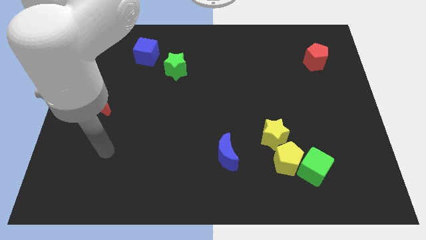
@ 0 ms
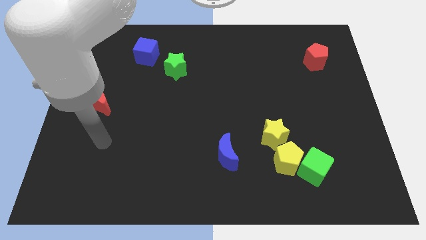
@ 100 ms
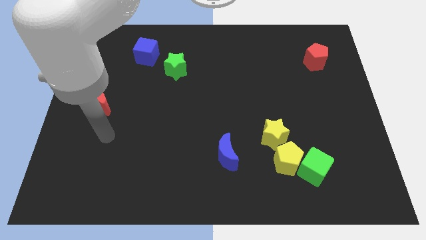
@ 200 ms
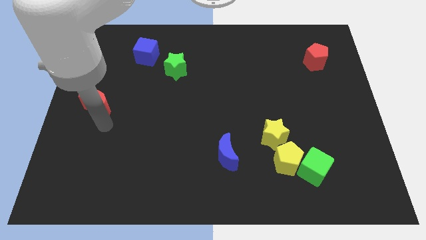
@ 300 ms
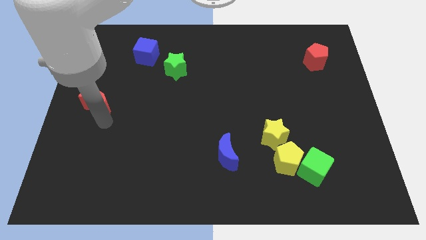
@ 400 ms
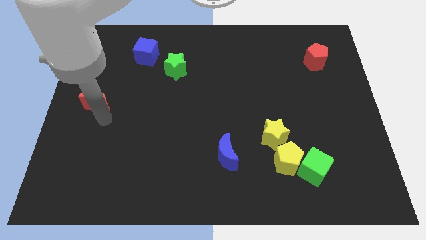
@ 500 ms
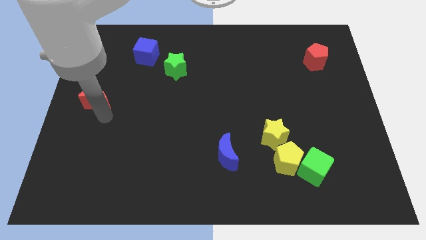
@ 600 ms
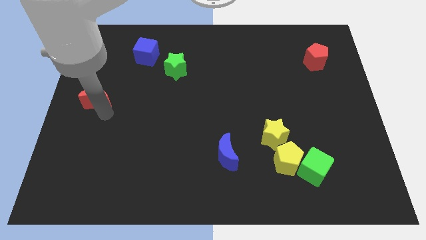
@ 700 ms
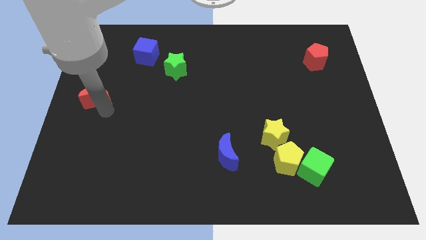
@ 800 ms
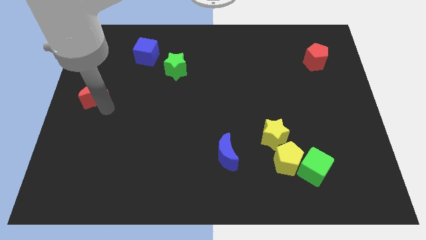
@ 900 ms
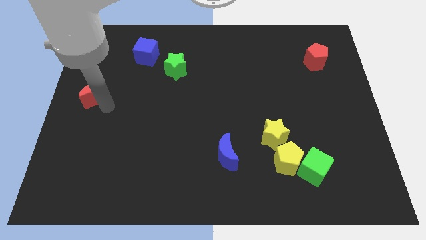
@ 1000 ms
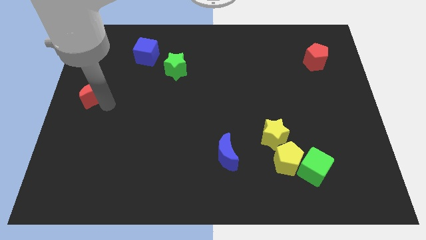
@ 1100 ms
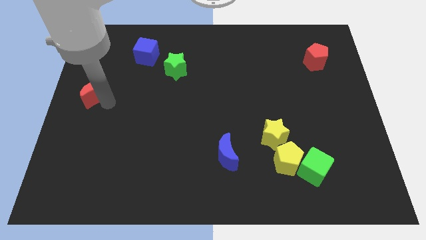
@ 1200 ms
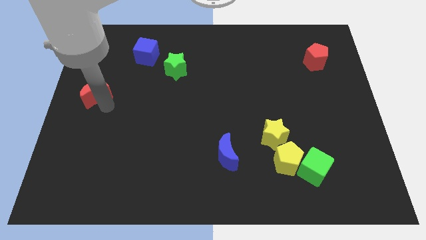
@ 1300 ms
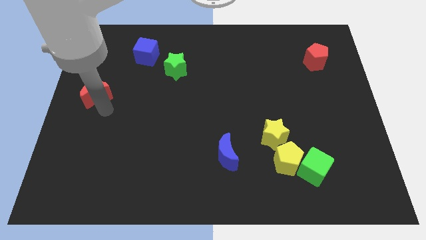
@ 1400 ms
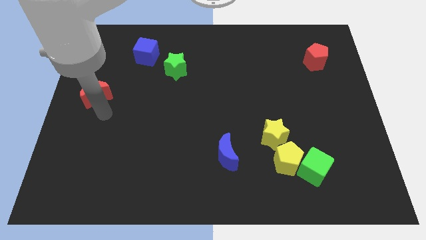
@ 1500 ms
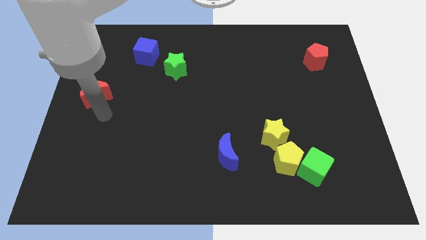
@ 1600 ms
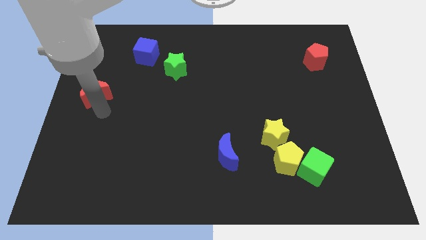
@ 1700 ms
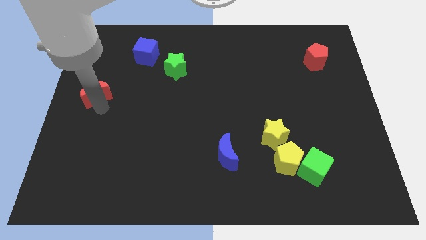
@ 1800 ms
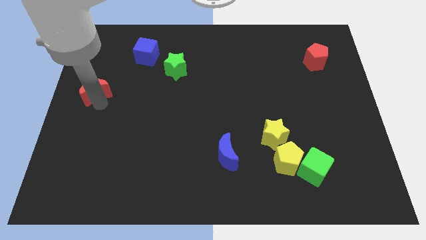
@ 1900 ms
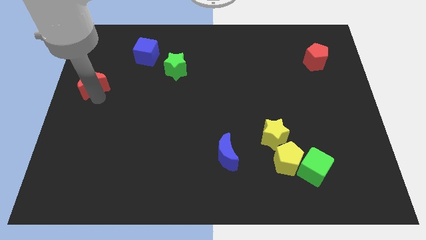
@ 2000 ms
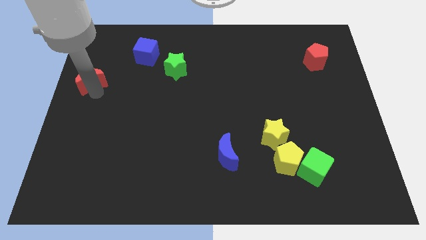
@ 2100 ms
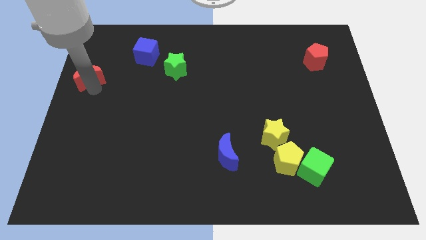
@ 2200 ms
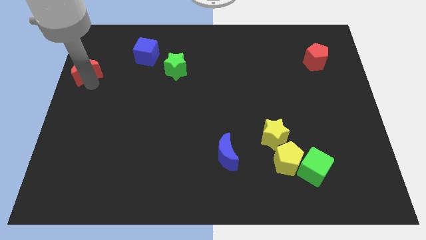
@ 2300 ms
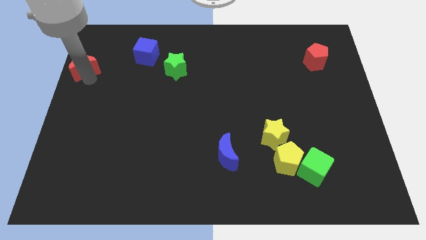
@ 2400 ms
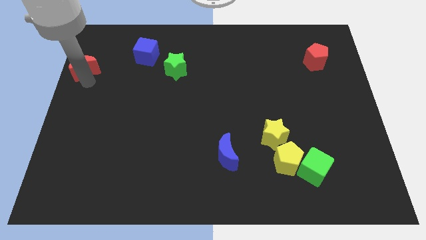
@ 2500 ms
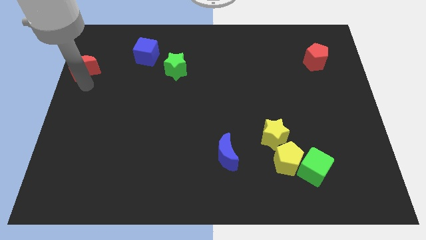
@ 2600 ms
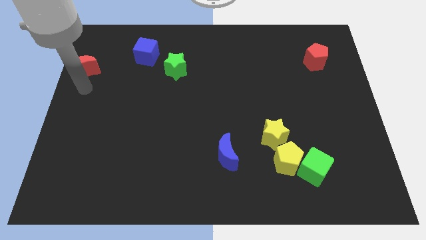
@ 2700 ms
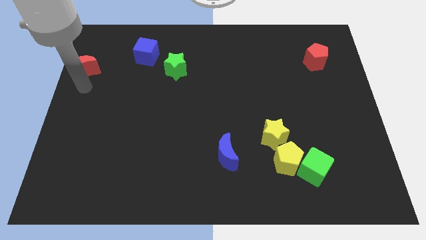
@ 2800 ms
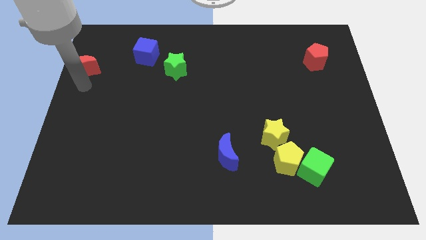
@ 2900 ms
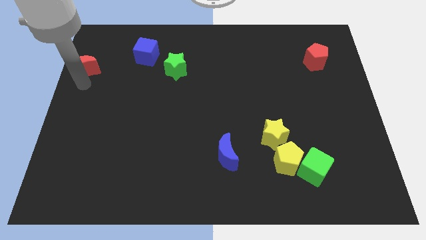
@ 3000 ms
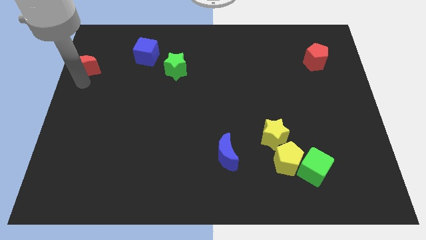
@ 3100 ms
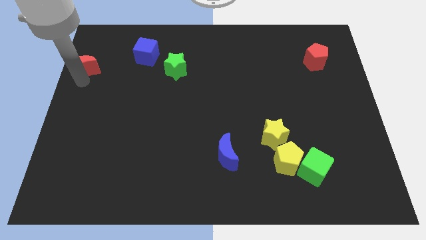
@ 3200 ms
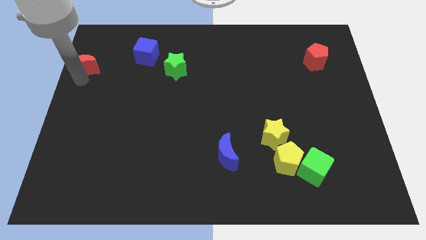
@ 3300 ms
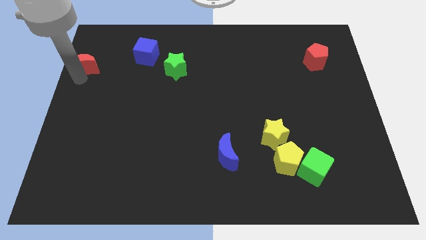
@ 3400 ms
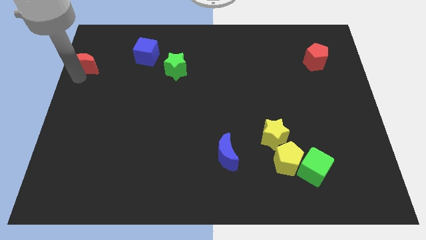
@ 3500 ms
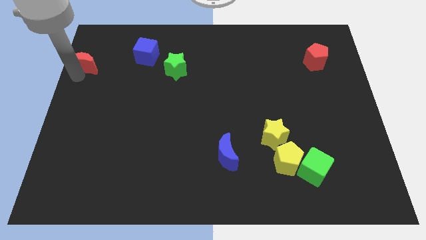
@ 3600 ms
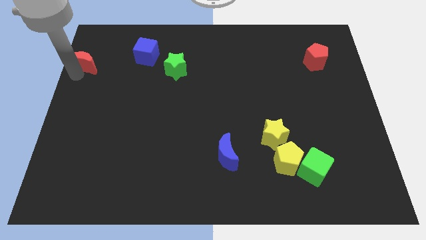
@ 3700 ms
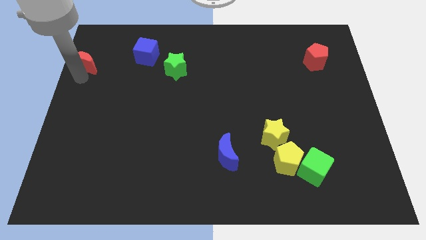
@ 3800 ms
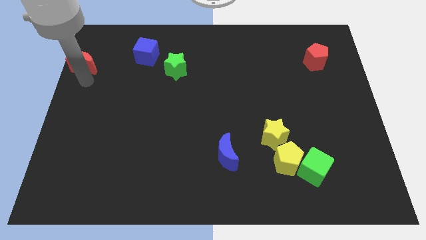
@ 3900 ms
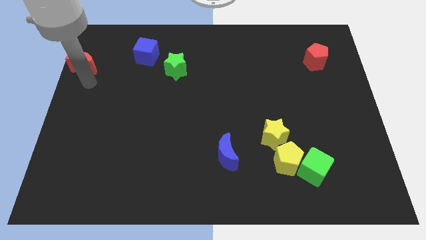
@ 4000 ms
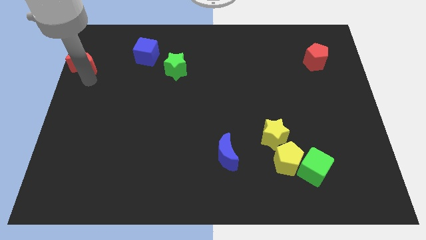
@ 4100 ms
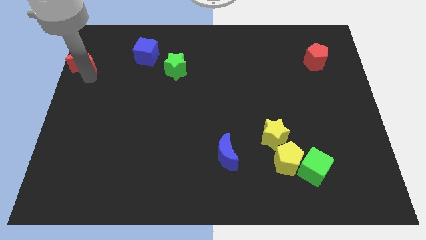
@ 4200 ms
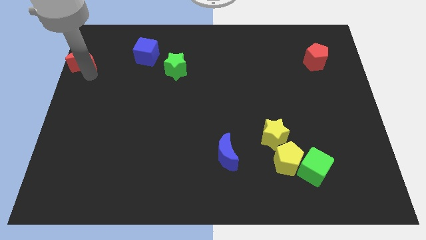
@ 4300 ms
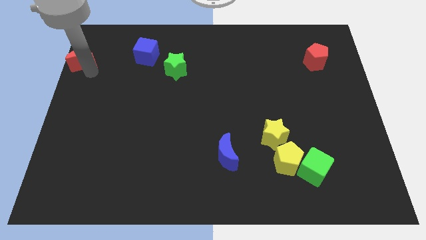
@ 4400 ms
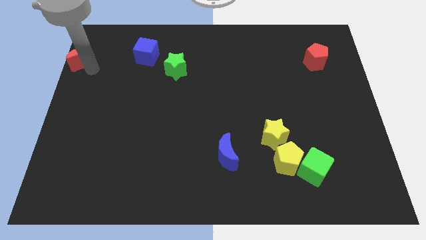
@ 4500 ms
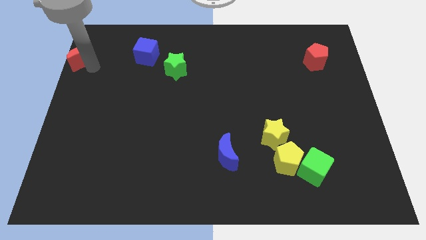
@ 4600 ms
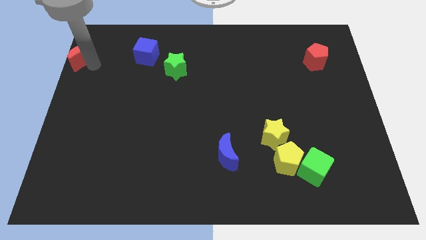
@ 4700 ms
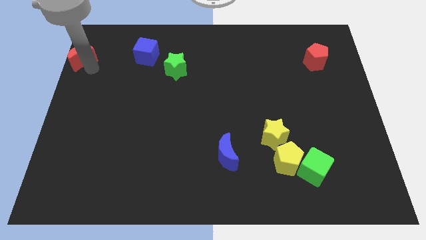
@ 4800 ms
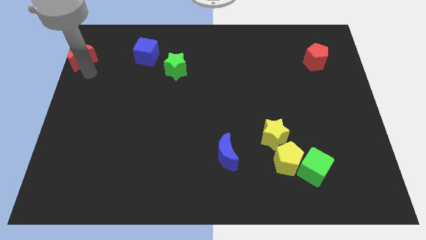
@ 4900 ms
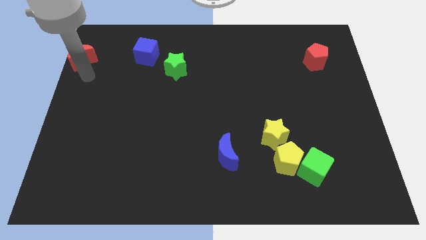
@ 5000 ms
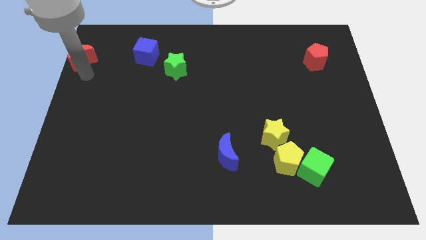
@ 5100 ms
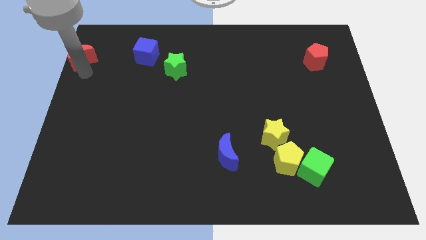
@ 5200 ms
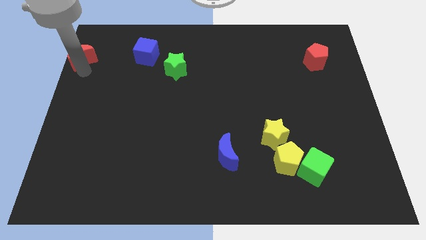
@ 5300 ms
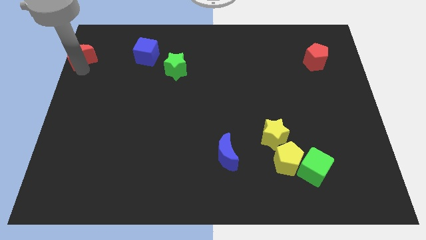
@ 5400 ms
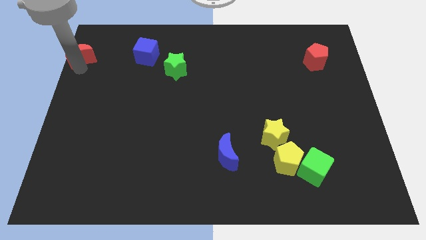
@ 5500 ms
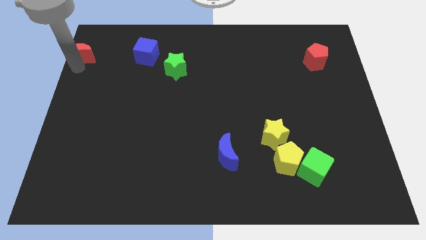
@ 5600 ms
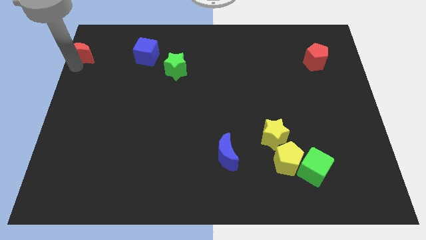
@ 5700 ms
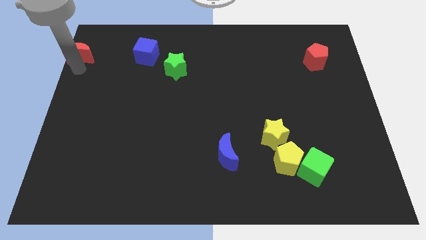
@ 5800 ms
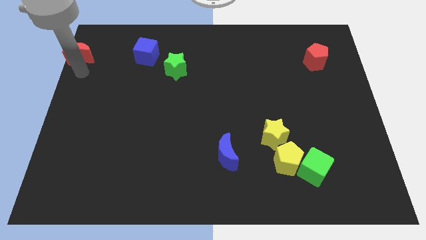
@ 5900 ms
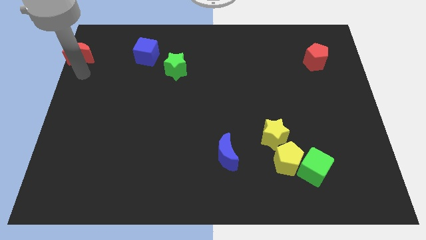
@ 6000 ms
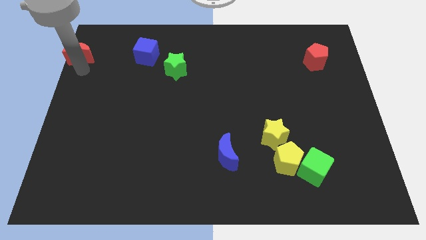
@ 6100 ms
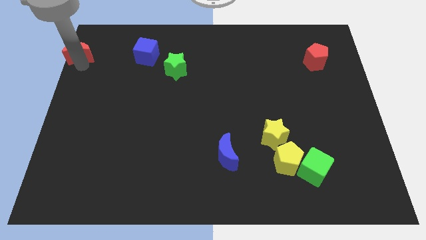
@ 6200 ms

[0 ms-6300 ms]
push the red moon to the upper left corner

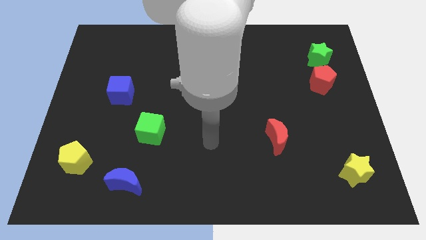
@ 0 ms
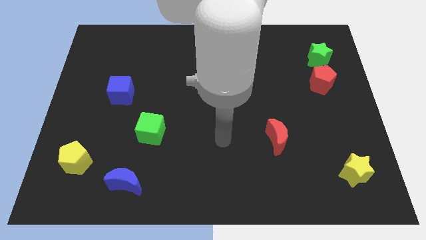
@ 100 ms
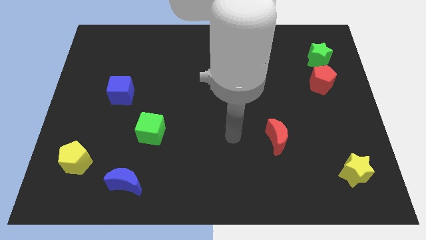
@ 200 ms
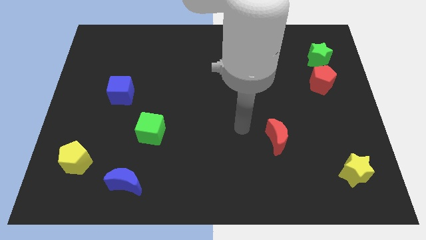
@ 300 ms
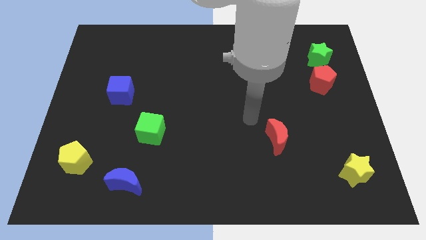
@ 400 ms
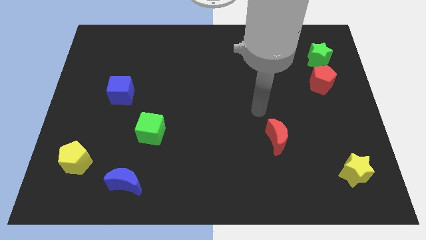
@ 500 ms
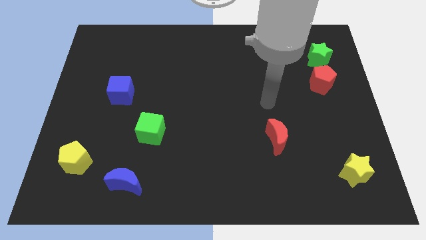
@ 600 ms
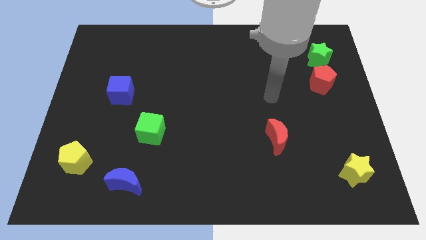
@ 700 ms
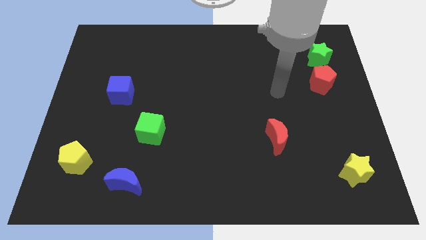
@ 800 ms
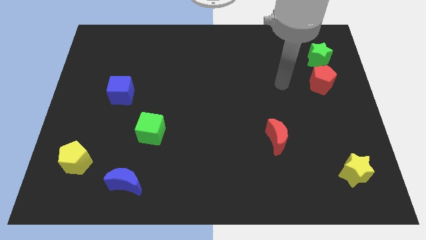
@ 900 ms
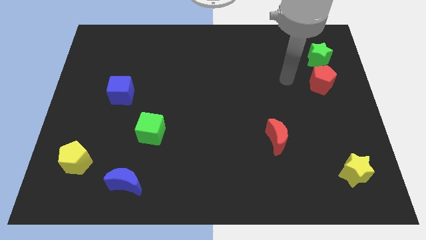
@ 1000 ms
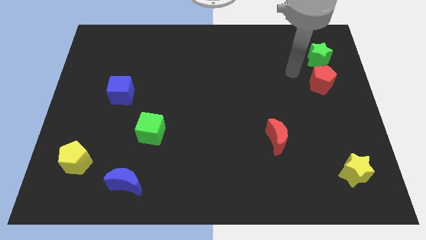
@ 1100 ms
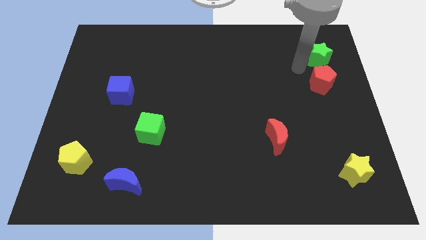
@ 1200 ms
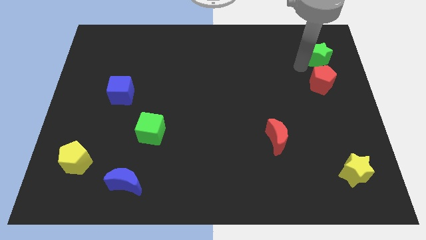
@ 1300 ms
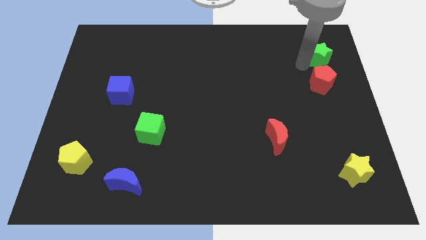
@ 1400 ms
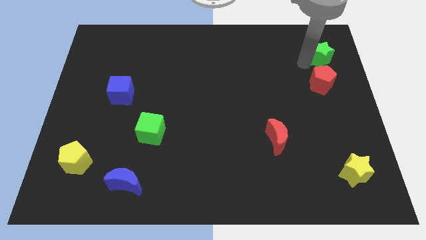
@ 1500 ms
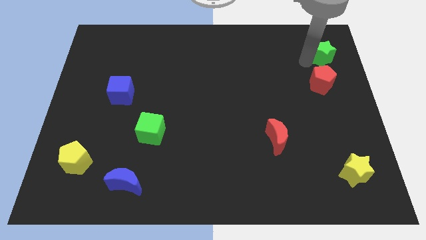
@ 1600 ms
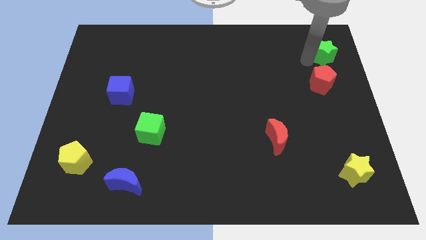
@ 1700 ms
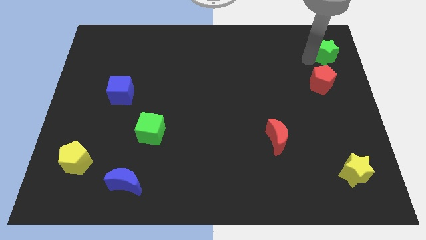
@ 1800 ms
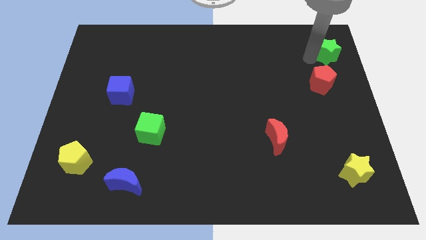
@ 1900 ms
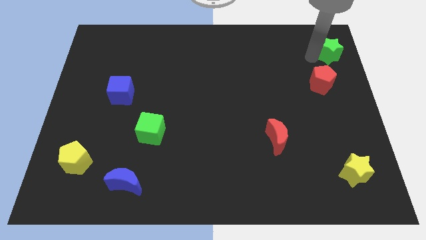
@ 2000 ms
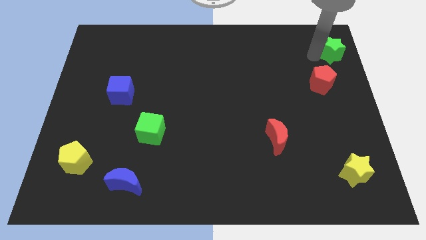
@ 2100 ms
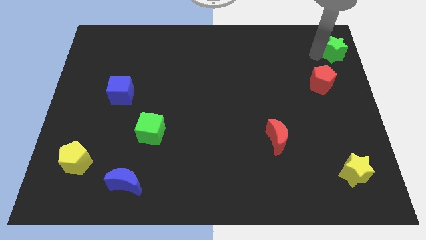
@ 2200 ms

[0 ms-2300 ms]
push the green star to the upper right corner
